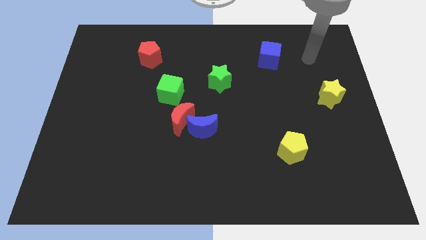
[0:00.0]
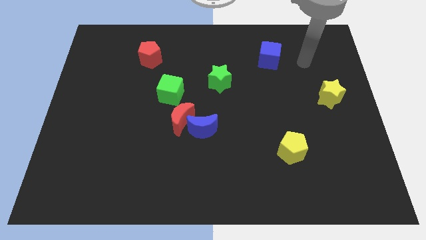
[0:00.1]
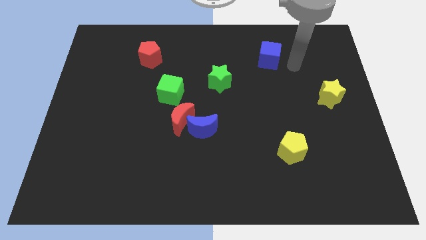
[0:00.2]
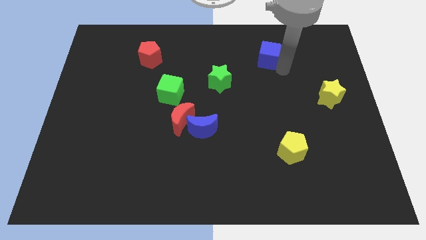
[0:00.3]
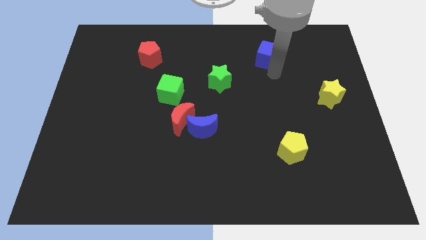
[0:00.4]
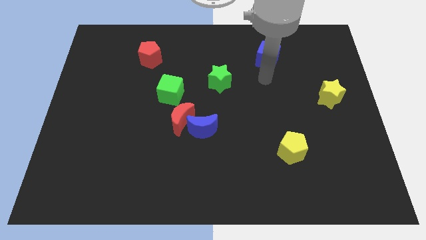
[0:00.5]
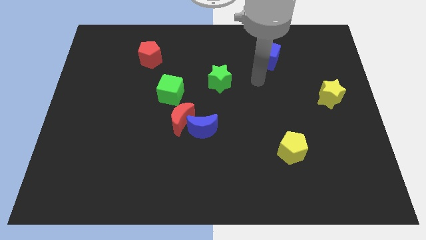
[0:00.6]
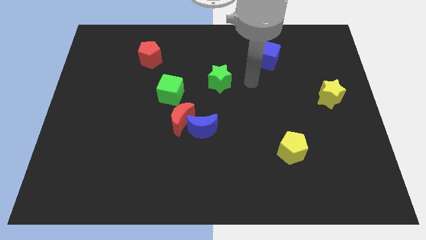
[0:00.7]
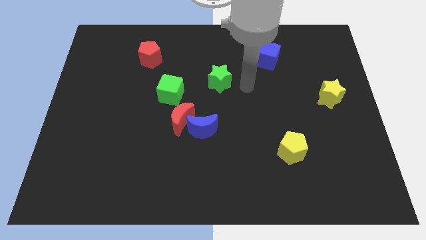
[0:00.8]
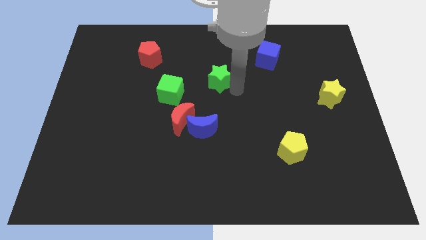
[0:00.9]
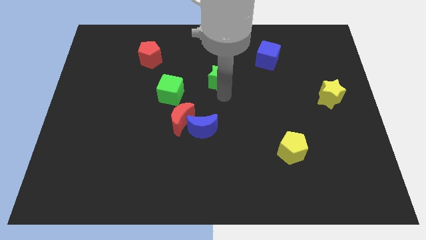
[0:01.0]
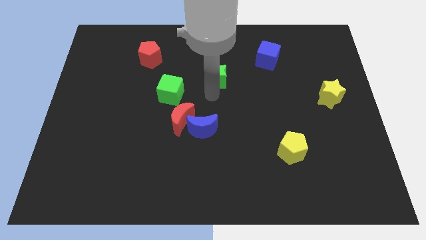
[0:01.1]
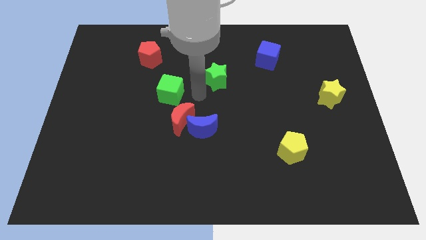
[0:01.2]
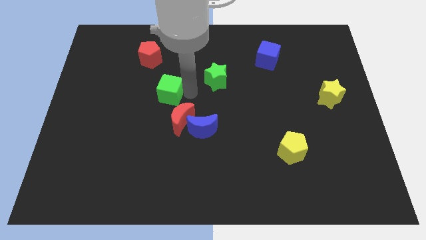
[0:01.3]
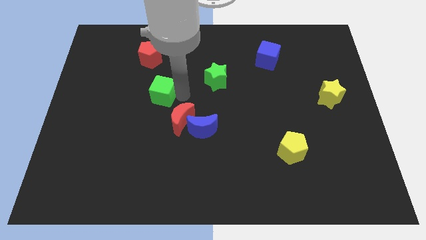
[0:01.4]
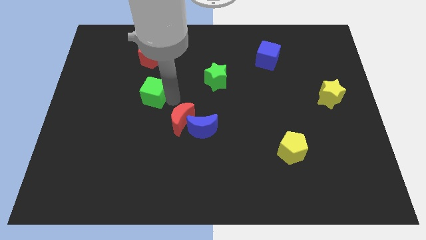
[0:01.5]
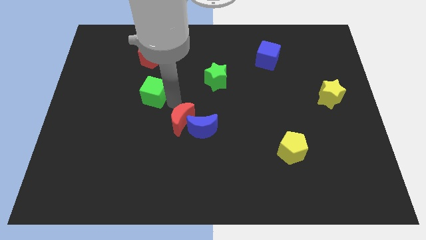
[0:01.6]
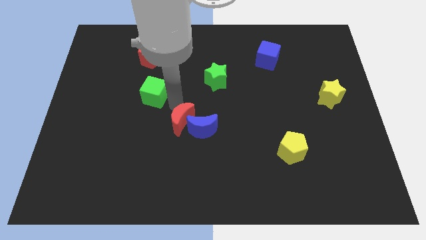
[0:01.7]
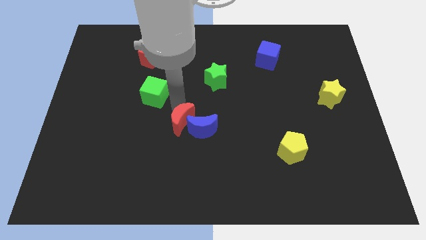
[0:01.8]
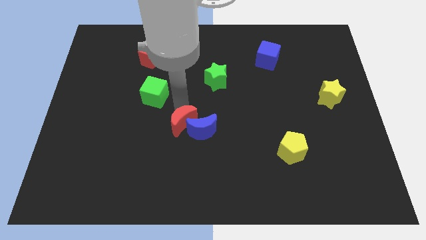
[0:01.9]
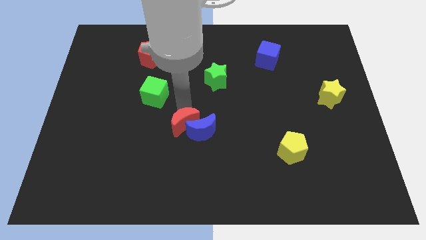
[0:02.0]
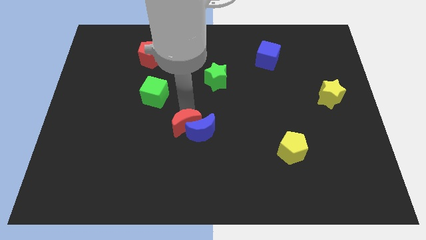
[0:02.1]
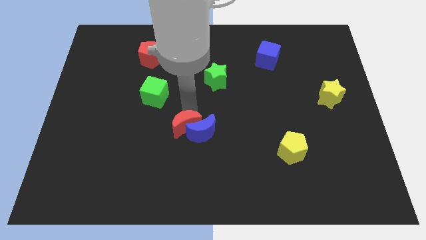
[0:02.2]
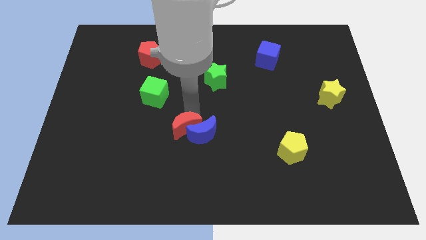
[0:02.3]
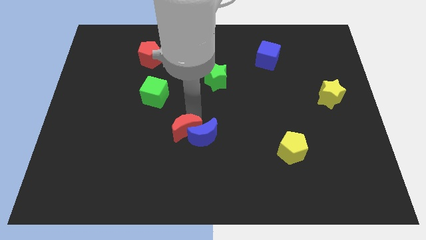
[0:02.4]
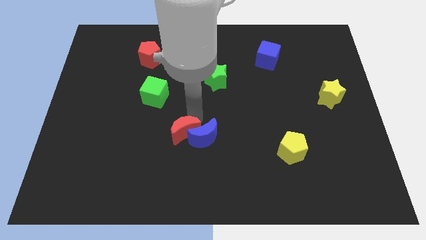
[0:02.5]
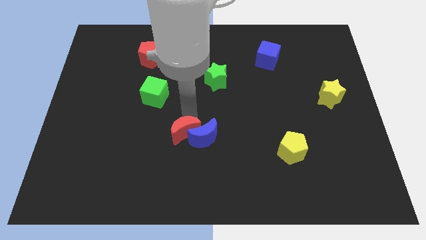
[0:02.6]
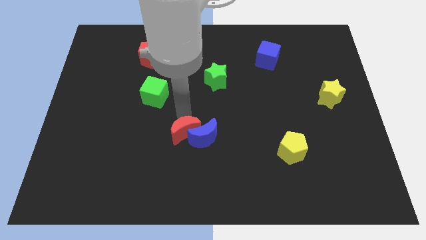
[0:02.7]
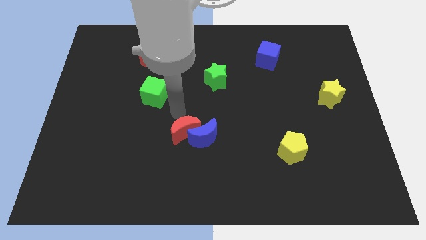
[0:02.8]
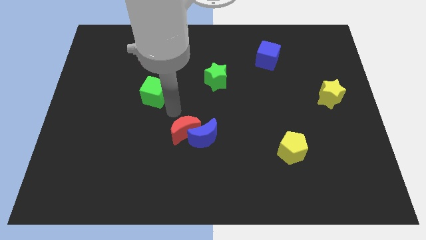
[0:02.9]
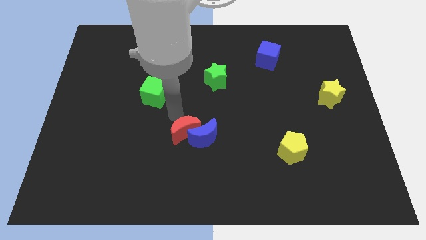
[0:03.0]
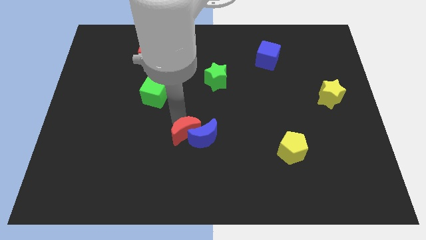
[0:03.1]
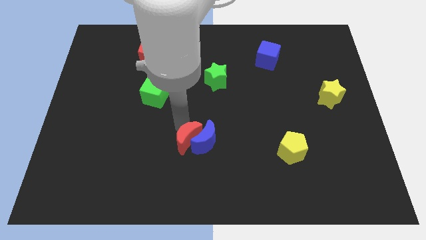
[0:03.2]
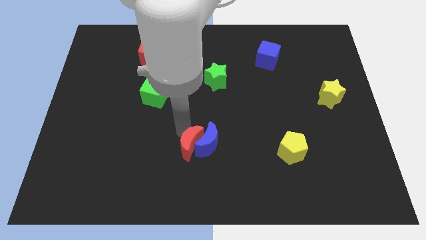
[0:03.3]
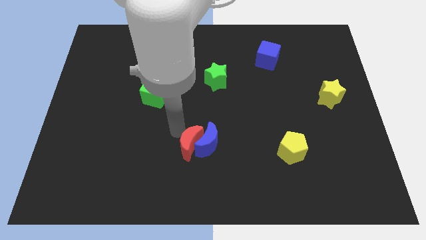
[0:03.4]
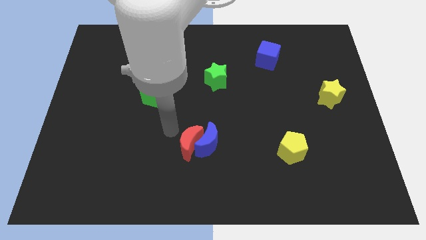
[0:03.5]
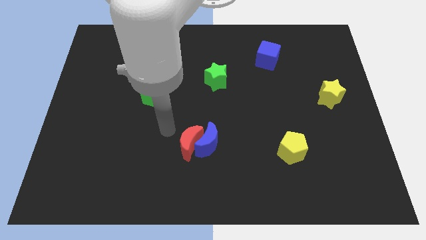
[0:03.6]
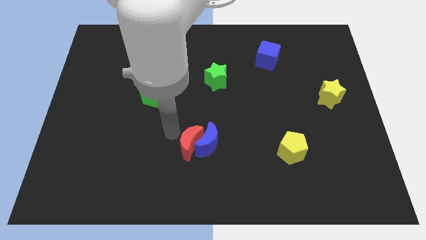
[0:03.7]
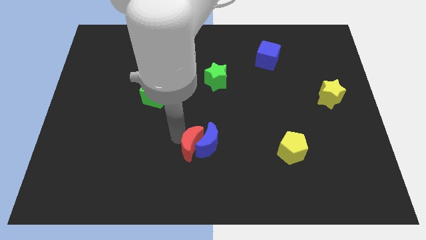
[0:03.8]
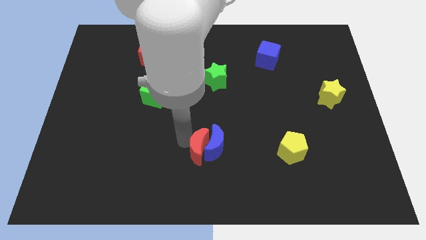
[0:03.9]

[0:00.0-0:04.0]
slightly push the red moon down and to the right diagonally

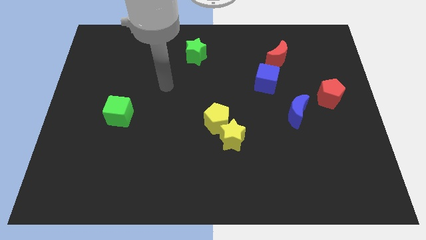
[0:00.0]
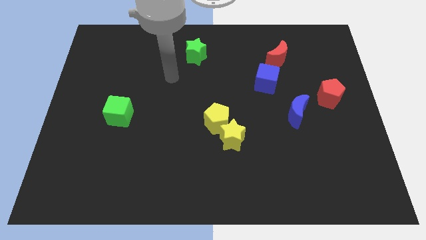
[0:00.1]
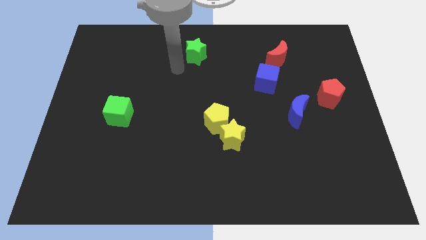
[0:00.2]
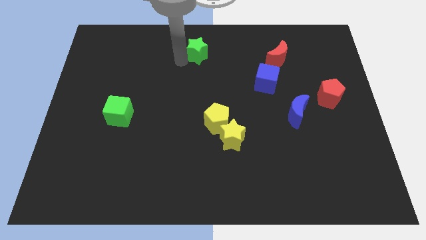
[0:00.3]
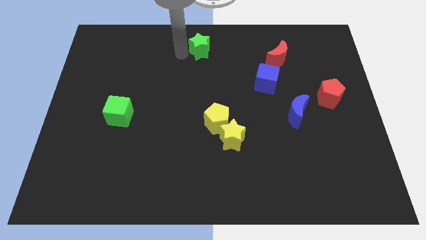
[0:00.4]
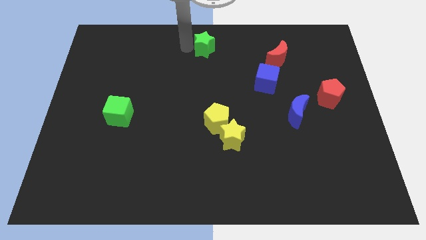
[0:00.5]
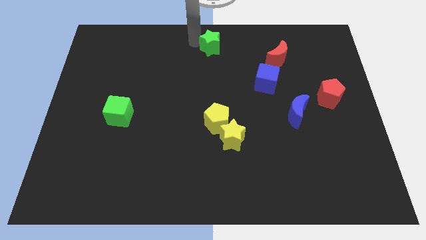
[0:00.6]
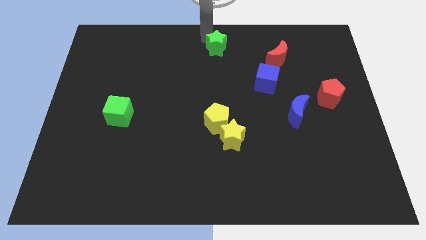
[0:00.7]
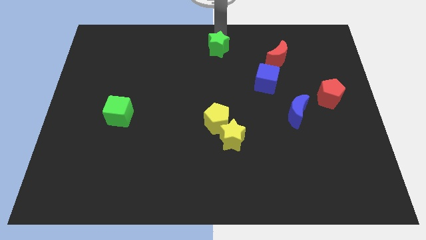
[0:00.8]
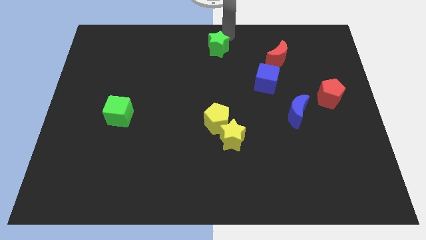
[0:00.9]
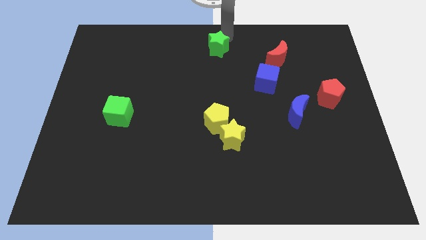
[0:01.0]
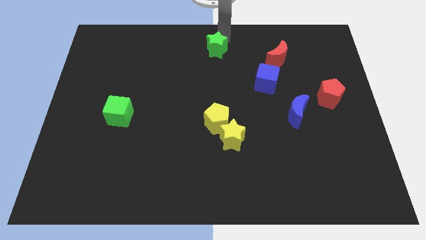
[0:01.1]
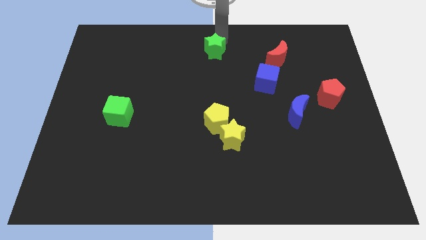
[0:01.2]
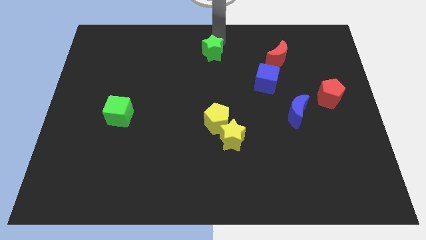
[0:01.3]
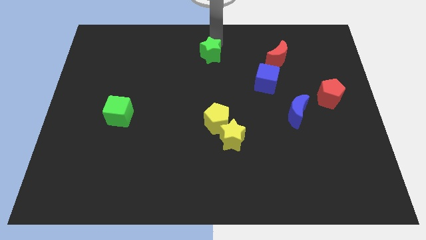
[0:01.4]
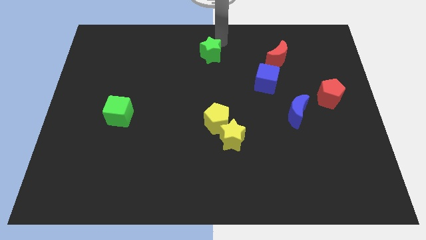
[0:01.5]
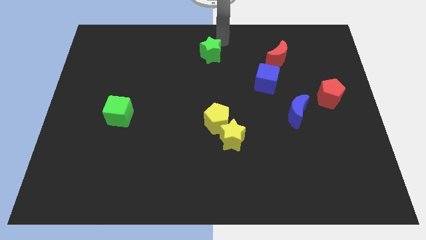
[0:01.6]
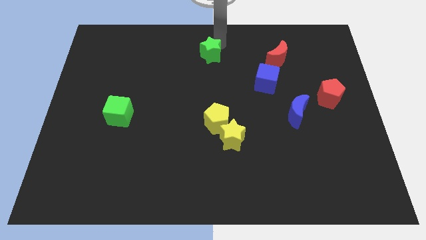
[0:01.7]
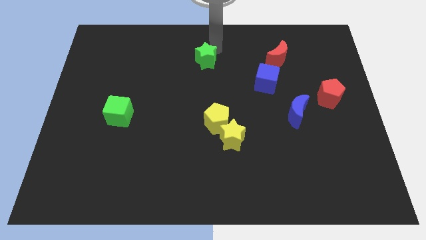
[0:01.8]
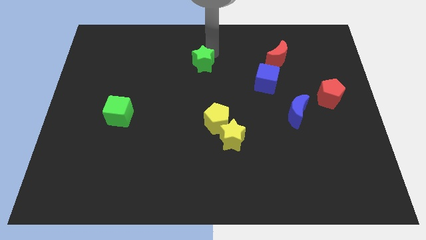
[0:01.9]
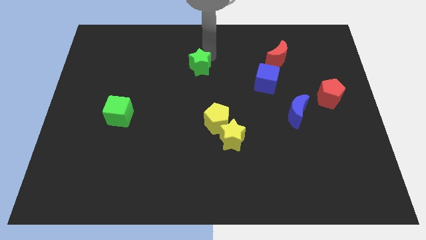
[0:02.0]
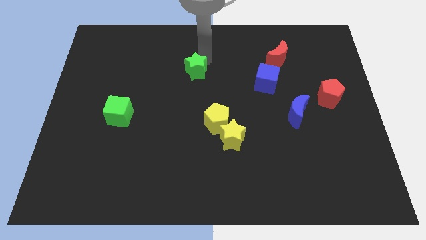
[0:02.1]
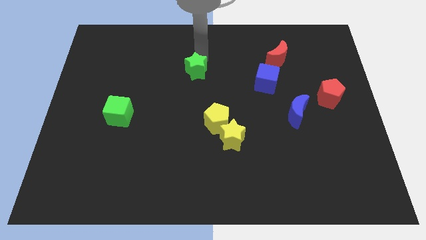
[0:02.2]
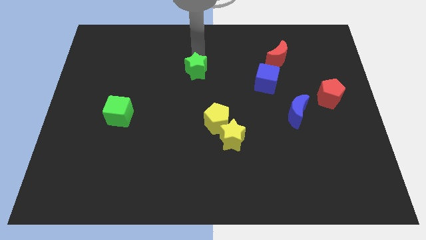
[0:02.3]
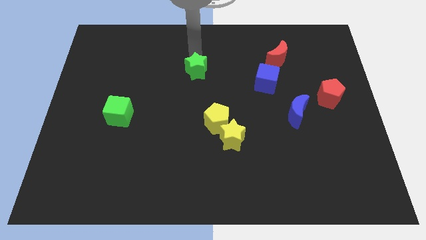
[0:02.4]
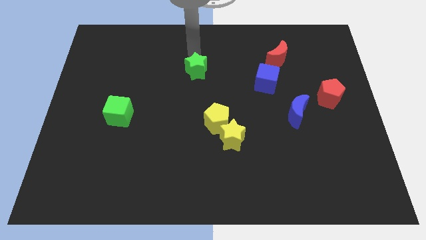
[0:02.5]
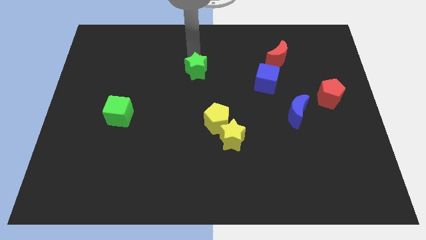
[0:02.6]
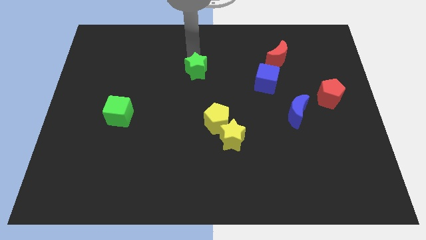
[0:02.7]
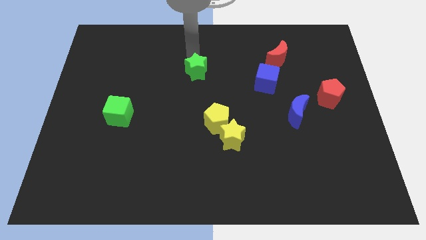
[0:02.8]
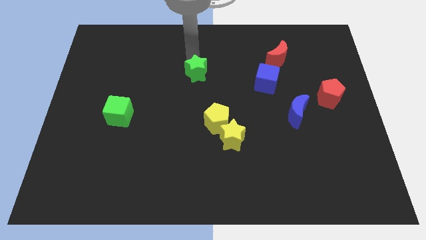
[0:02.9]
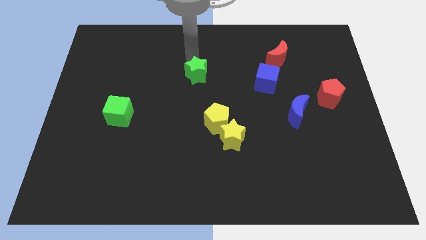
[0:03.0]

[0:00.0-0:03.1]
slide the green star downwards somewhat

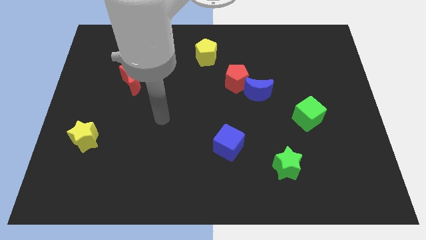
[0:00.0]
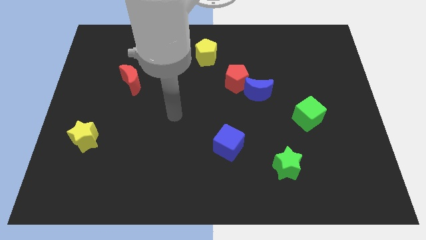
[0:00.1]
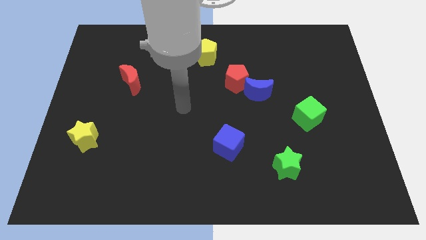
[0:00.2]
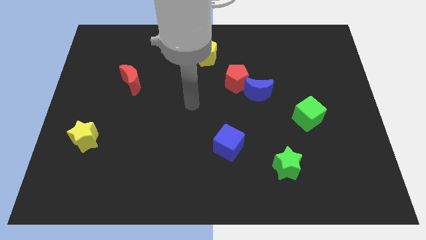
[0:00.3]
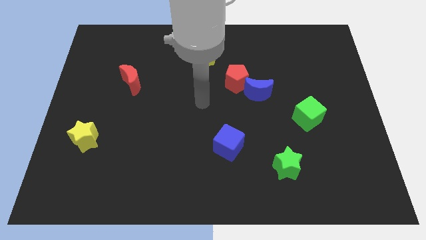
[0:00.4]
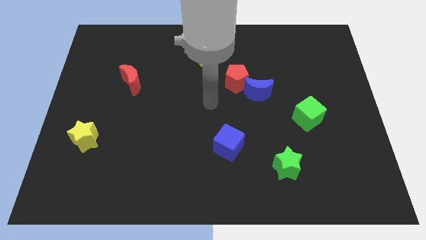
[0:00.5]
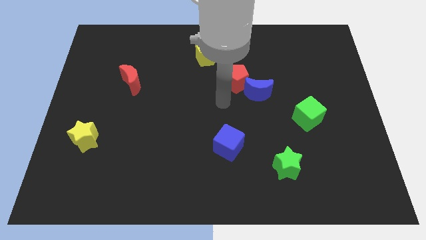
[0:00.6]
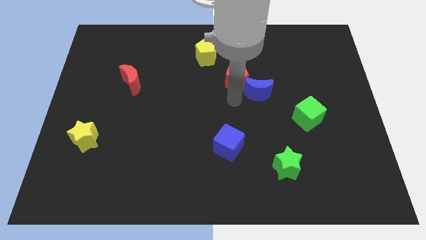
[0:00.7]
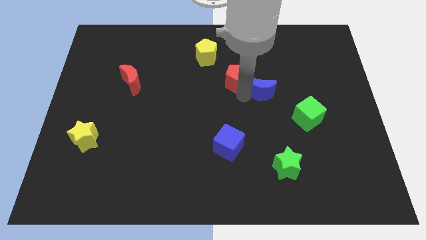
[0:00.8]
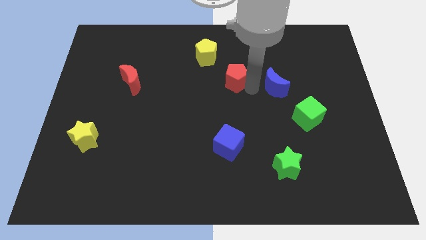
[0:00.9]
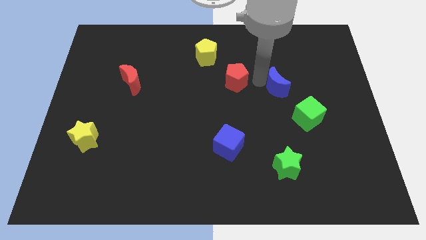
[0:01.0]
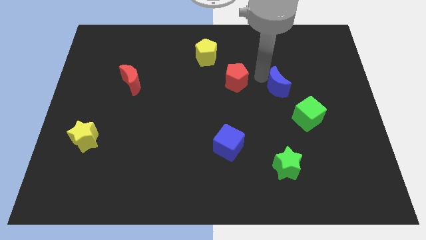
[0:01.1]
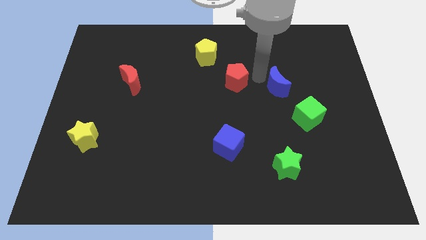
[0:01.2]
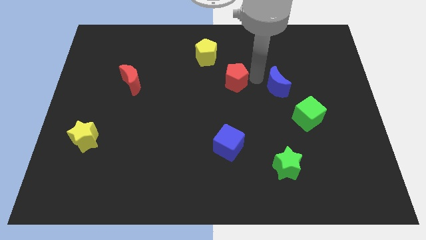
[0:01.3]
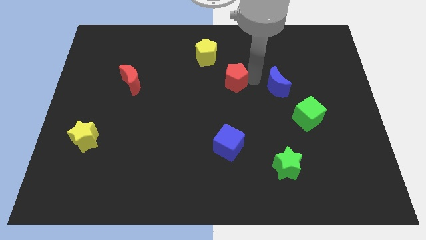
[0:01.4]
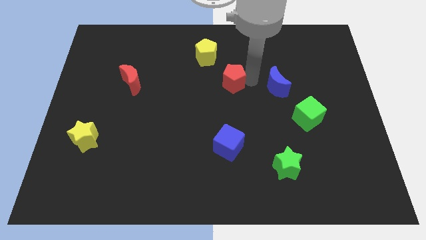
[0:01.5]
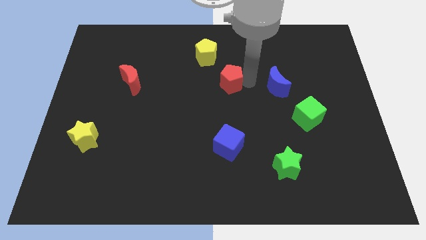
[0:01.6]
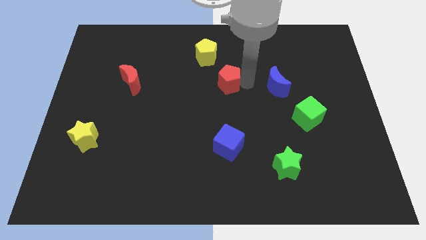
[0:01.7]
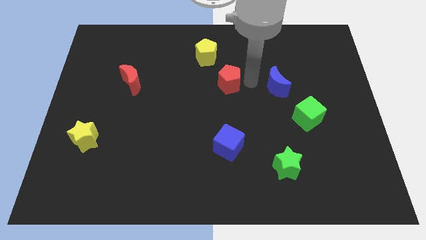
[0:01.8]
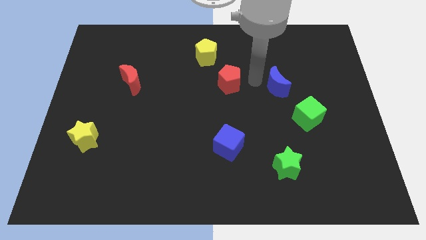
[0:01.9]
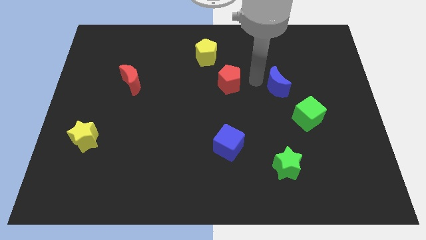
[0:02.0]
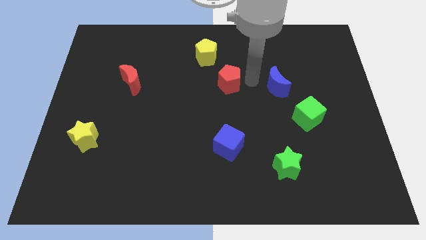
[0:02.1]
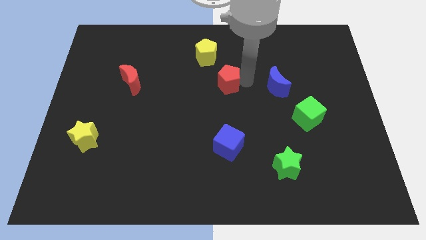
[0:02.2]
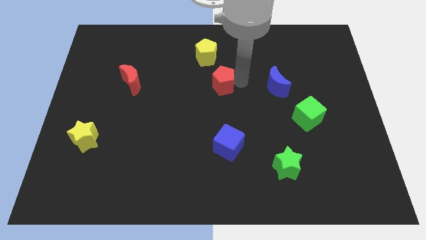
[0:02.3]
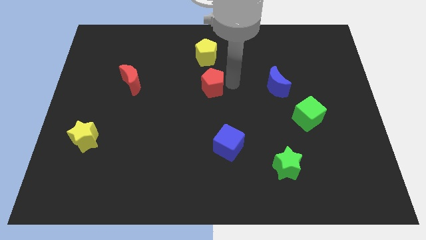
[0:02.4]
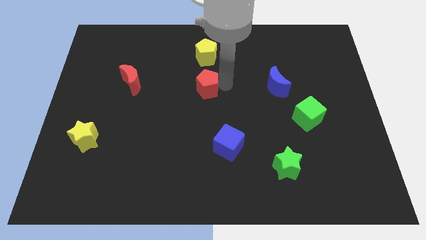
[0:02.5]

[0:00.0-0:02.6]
move the red pentagon to the left slightly
